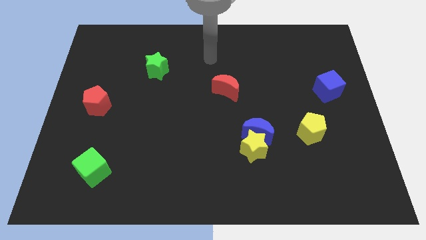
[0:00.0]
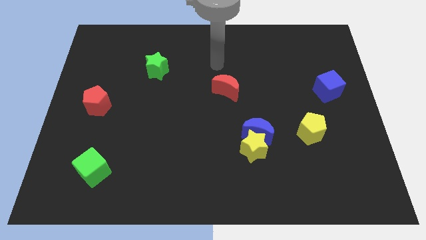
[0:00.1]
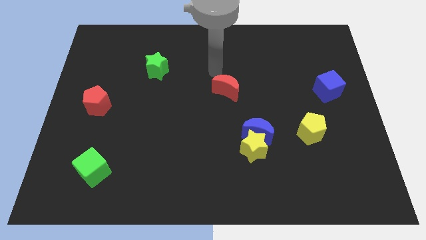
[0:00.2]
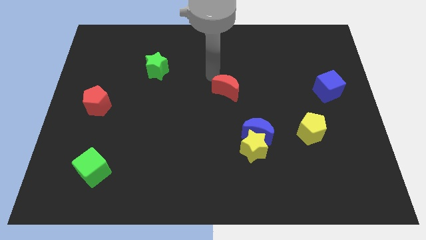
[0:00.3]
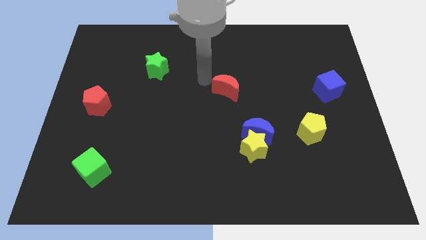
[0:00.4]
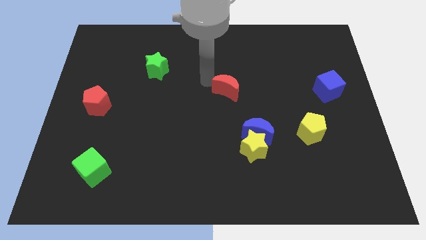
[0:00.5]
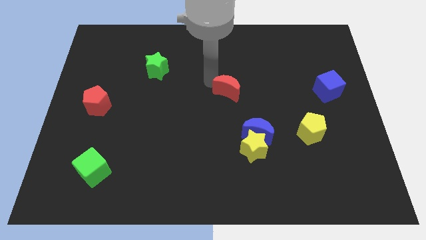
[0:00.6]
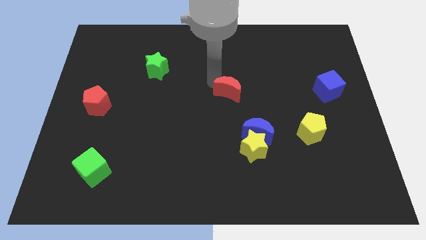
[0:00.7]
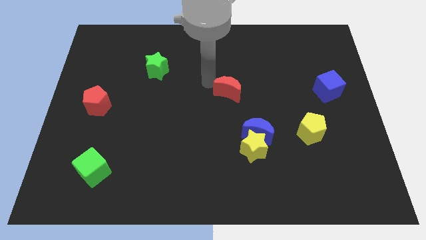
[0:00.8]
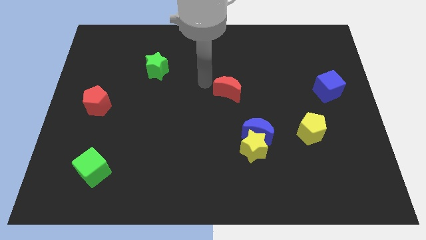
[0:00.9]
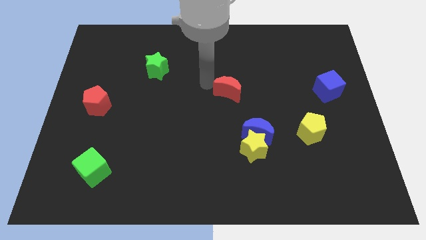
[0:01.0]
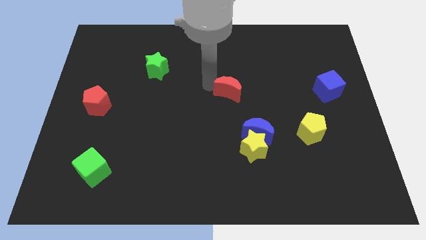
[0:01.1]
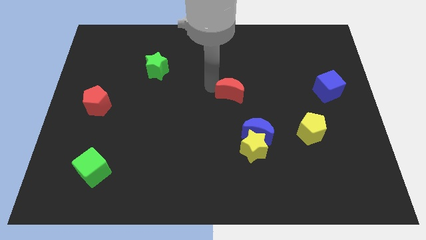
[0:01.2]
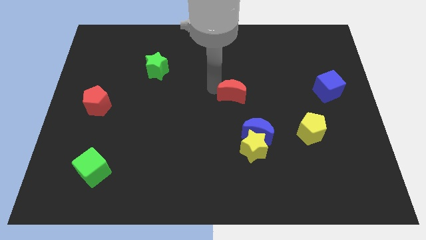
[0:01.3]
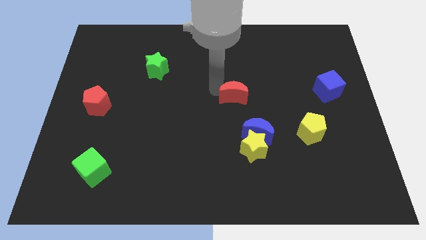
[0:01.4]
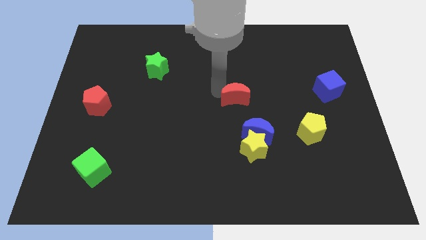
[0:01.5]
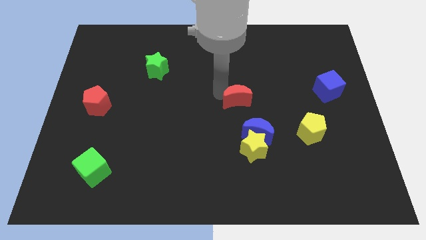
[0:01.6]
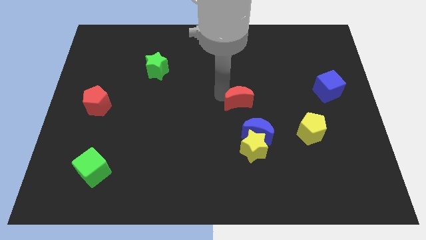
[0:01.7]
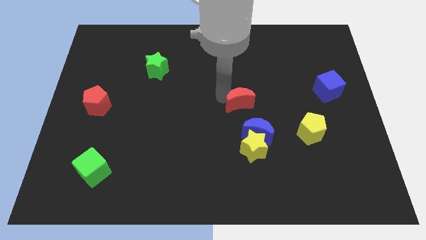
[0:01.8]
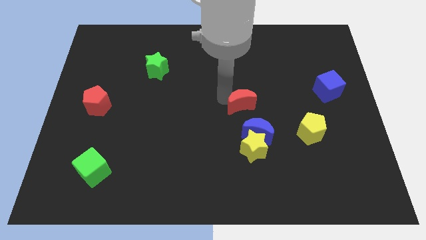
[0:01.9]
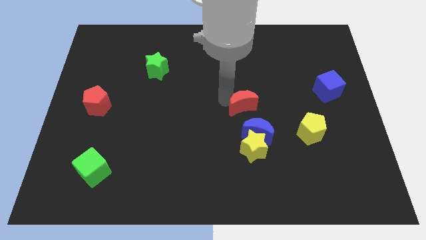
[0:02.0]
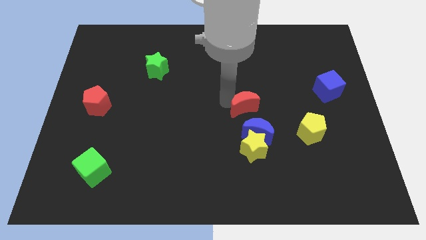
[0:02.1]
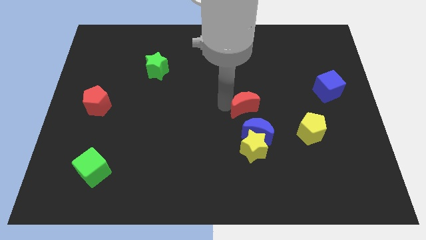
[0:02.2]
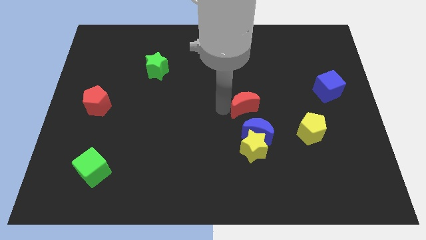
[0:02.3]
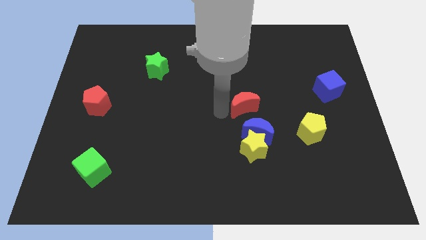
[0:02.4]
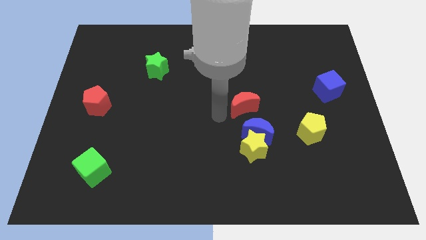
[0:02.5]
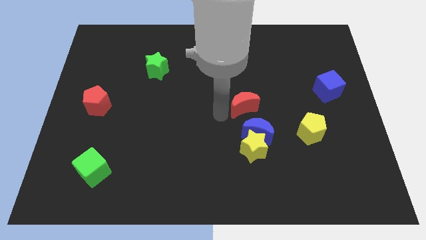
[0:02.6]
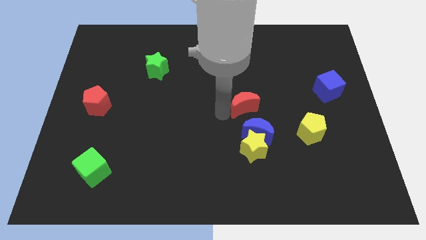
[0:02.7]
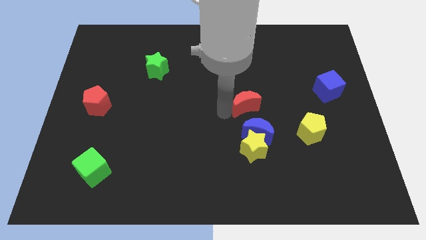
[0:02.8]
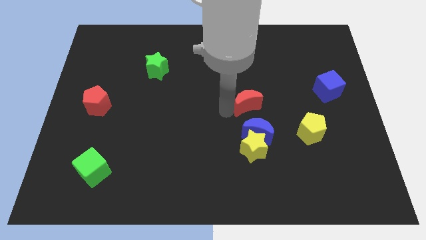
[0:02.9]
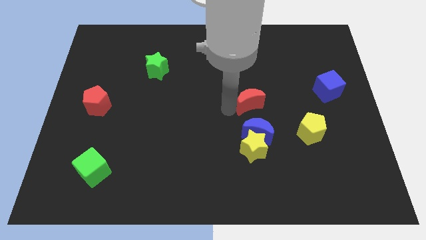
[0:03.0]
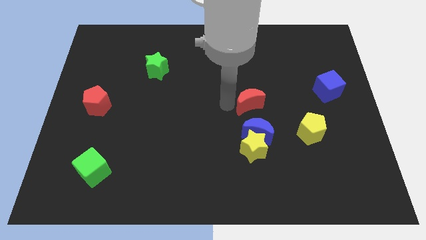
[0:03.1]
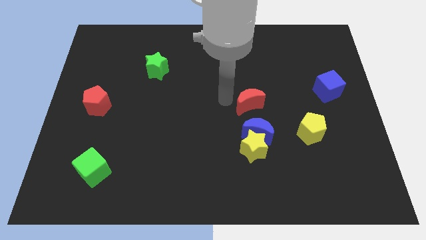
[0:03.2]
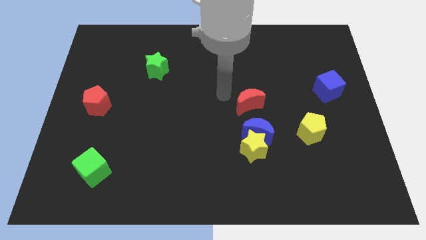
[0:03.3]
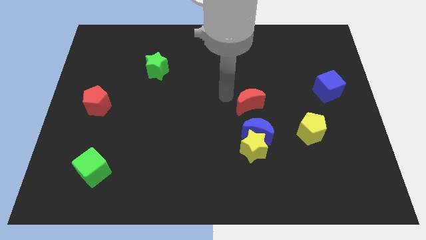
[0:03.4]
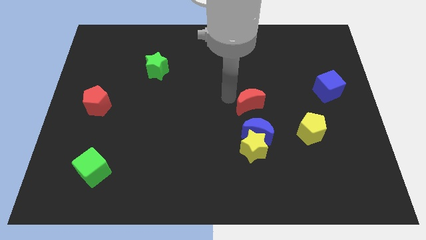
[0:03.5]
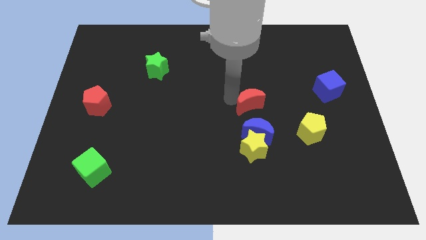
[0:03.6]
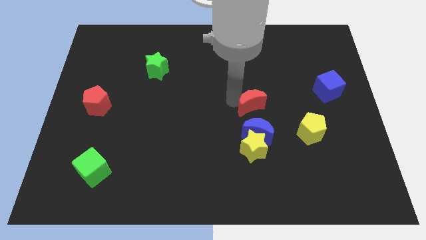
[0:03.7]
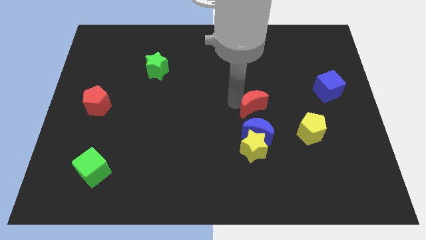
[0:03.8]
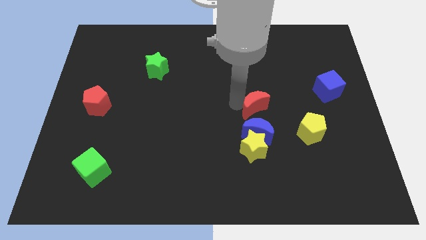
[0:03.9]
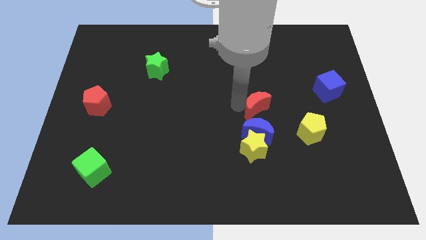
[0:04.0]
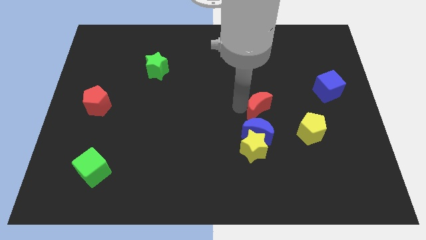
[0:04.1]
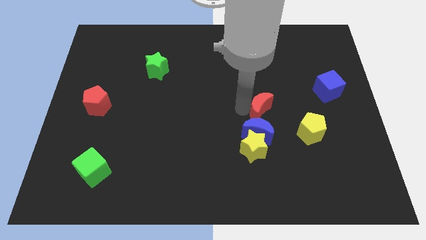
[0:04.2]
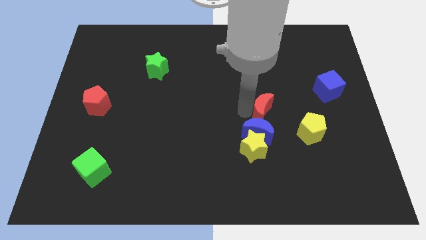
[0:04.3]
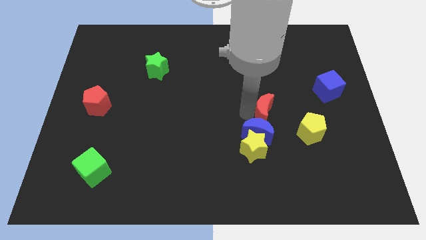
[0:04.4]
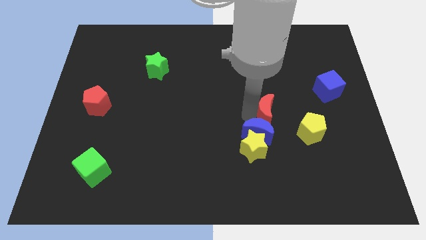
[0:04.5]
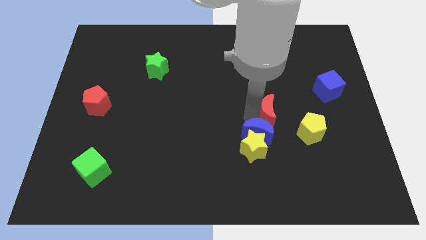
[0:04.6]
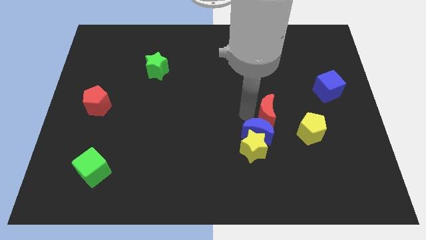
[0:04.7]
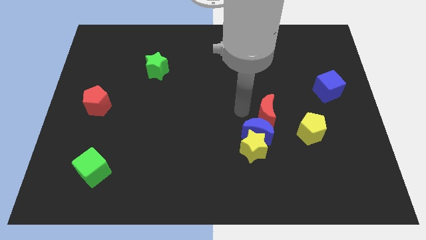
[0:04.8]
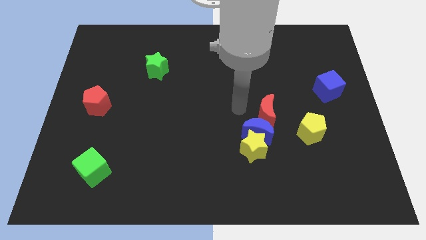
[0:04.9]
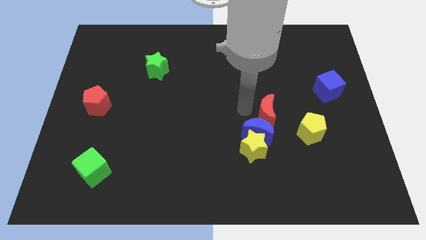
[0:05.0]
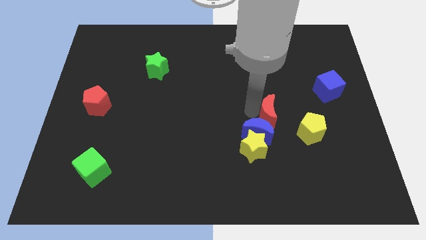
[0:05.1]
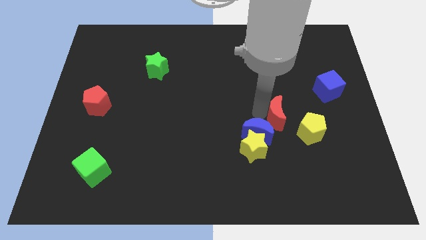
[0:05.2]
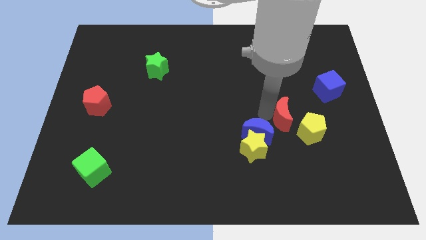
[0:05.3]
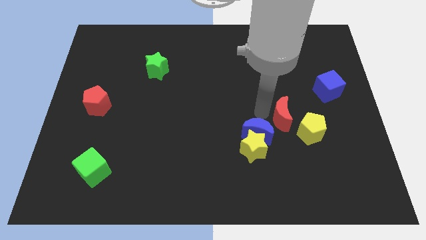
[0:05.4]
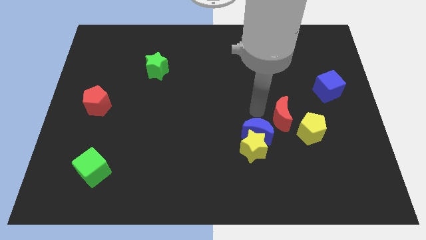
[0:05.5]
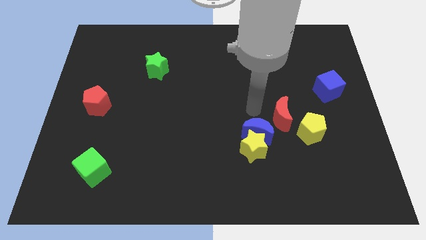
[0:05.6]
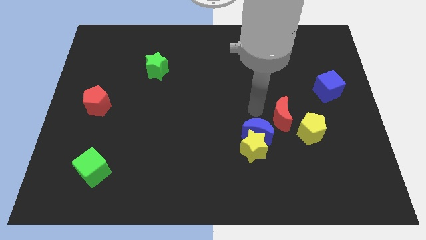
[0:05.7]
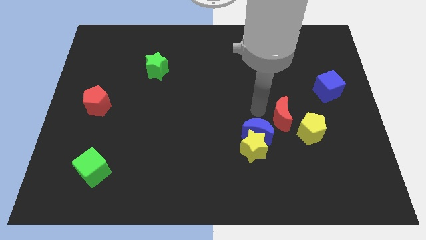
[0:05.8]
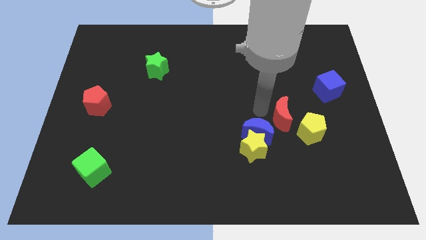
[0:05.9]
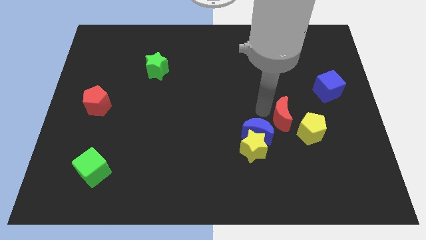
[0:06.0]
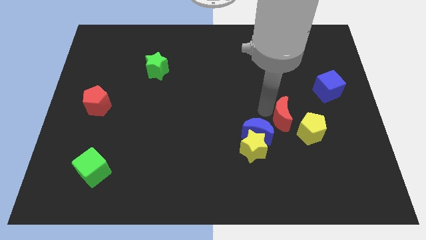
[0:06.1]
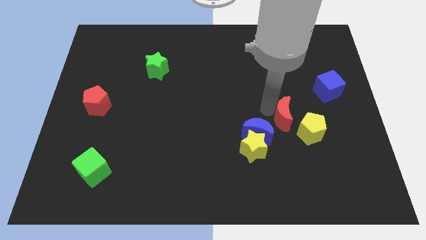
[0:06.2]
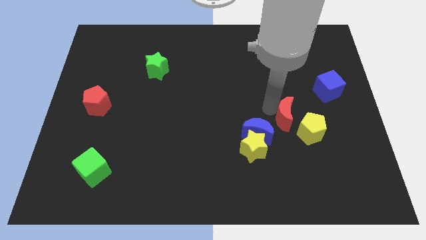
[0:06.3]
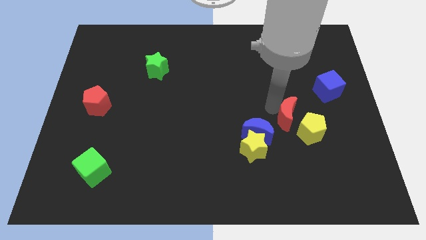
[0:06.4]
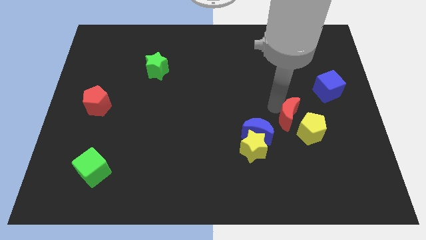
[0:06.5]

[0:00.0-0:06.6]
slide the red moon close to the yellow pentagon

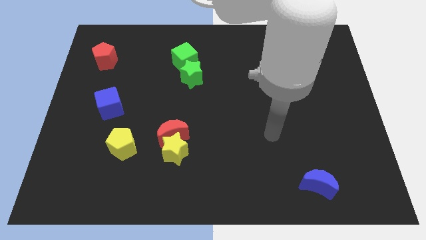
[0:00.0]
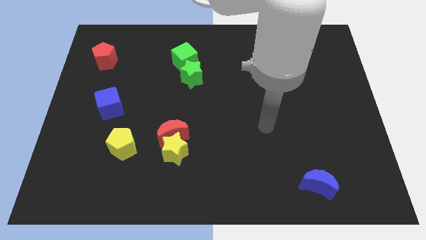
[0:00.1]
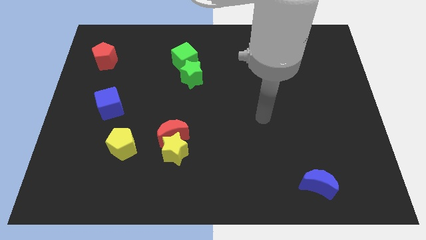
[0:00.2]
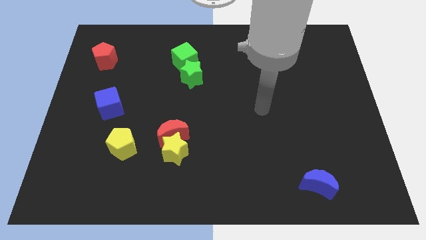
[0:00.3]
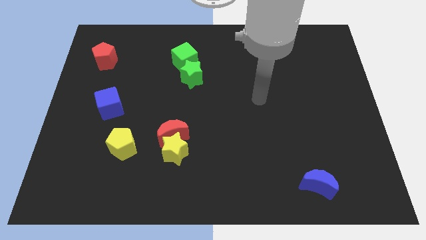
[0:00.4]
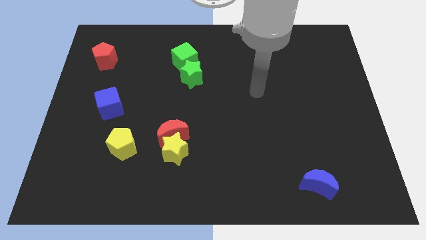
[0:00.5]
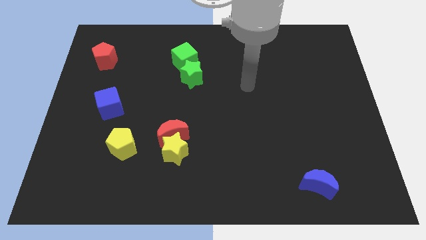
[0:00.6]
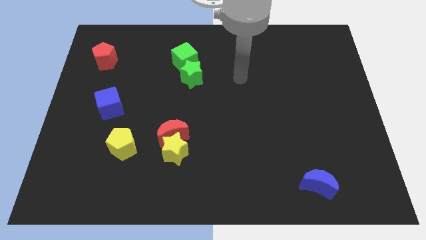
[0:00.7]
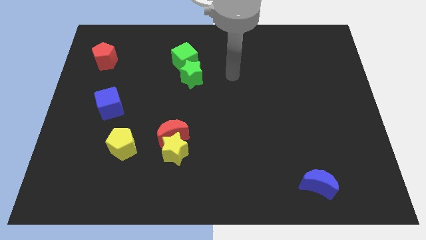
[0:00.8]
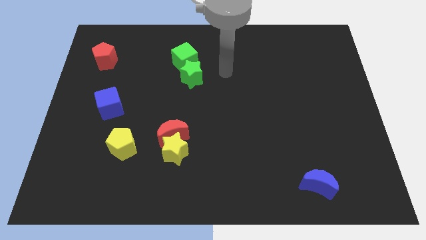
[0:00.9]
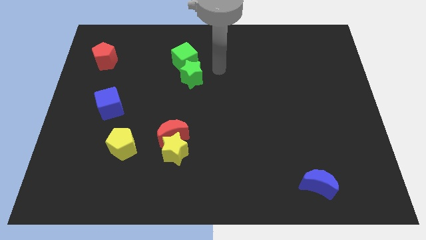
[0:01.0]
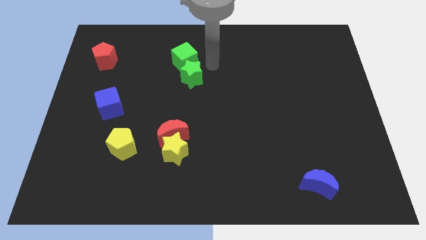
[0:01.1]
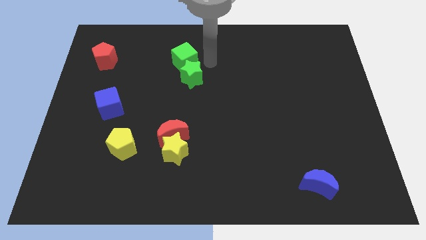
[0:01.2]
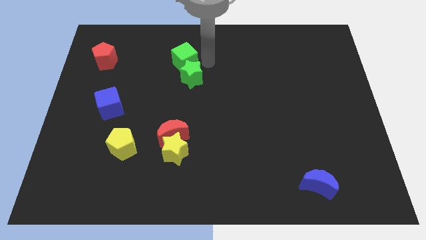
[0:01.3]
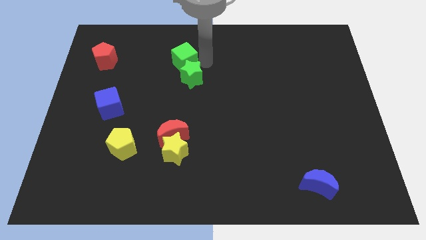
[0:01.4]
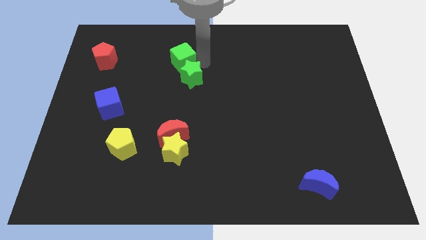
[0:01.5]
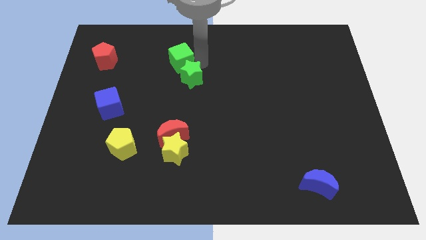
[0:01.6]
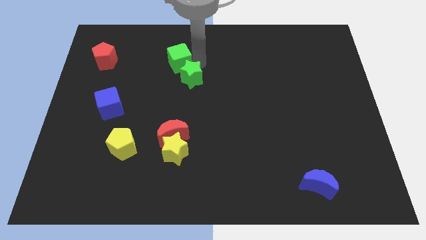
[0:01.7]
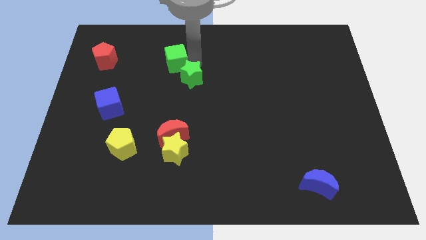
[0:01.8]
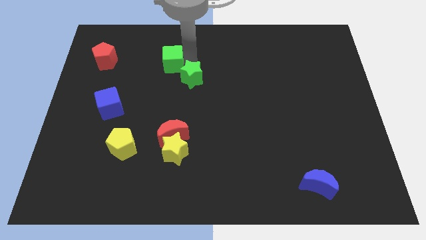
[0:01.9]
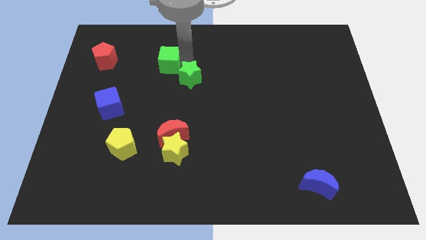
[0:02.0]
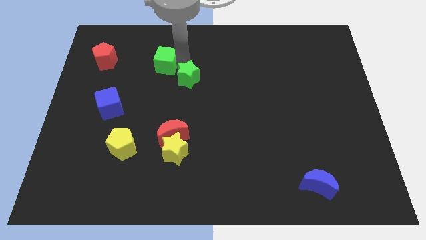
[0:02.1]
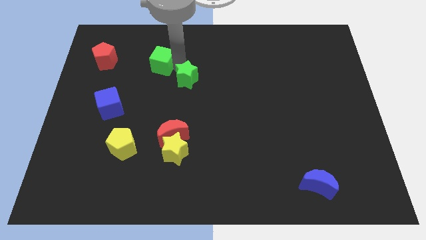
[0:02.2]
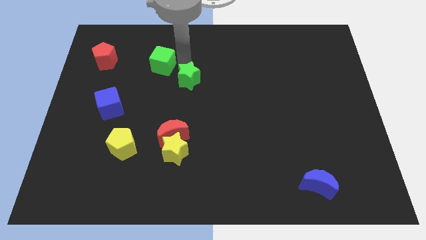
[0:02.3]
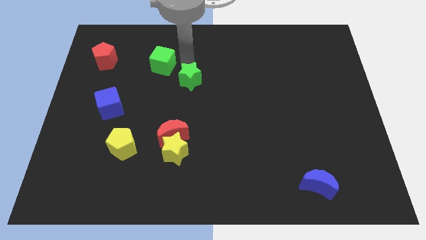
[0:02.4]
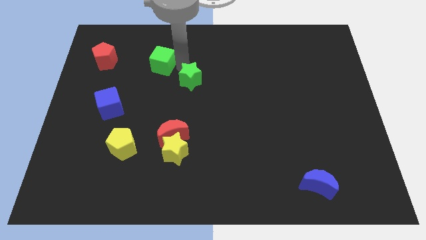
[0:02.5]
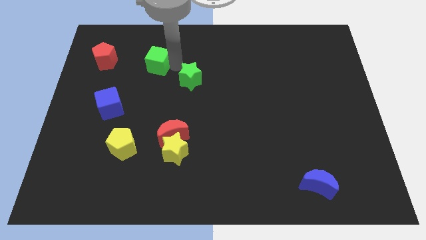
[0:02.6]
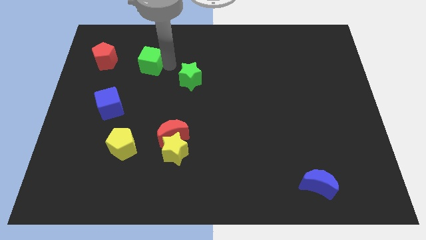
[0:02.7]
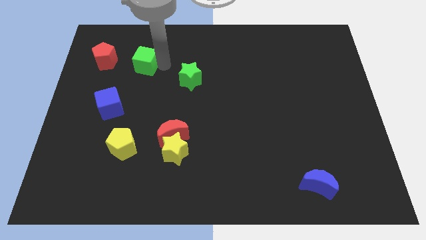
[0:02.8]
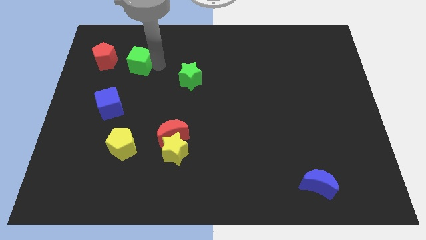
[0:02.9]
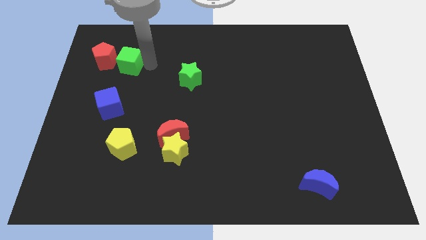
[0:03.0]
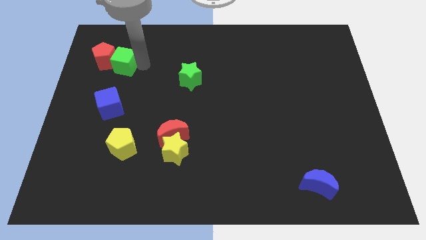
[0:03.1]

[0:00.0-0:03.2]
slide the green cube to the red pentagon
